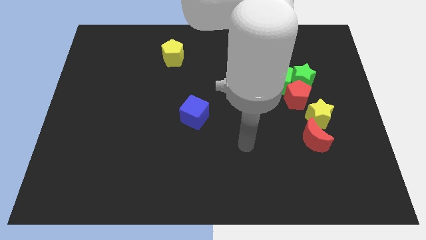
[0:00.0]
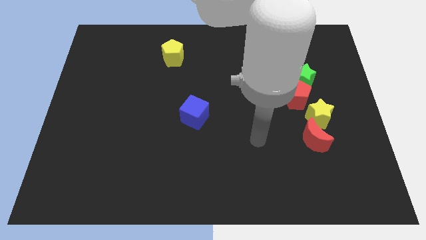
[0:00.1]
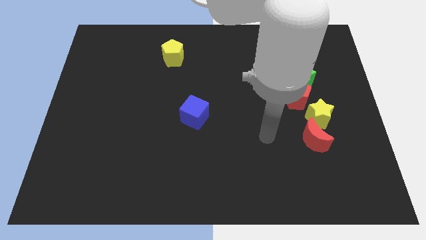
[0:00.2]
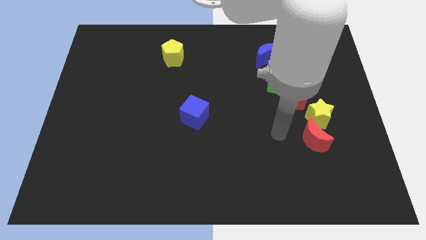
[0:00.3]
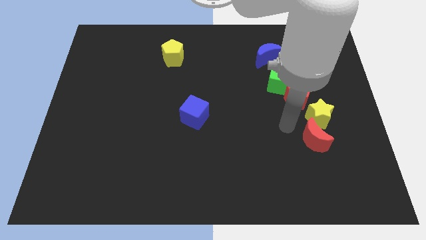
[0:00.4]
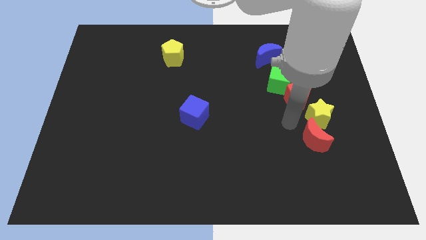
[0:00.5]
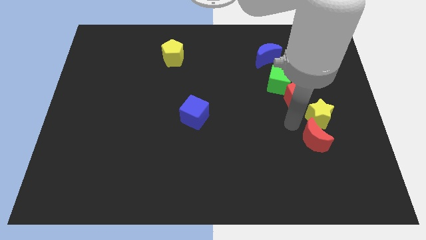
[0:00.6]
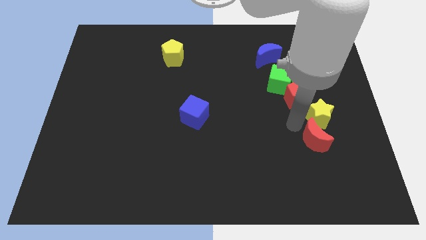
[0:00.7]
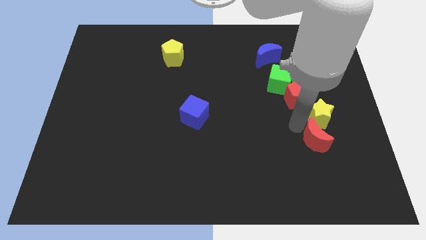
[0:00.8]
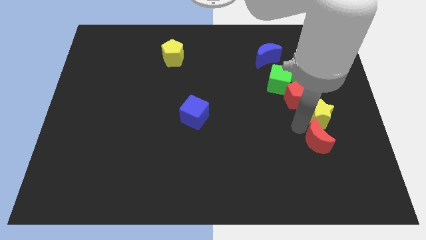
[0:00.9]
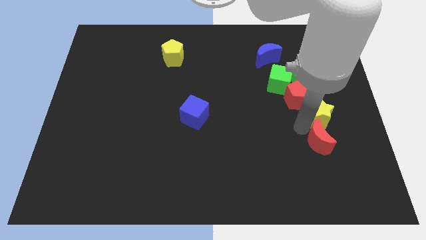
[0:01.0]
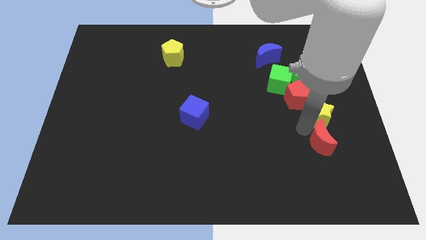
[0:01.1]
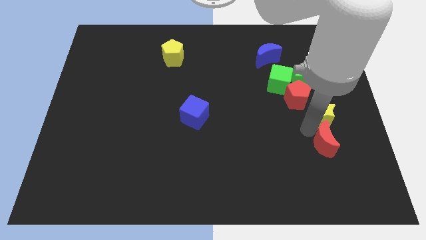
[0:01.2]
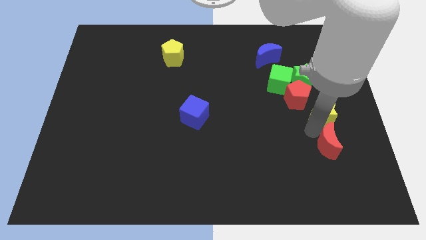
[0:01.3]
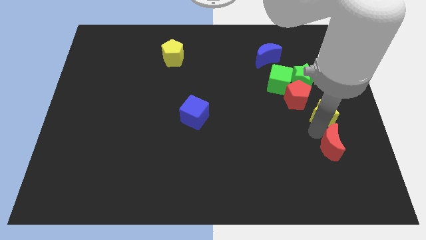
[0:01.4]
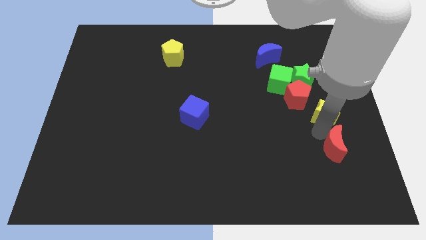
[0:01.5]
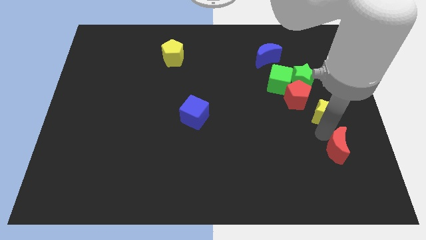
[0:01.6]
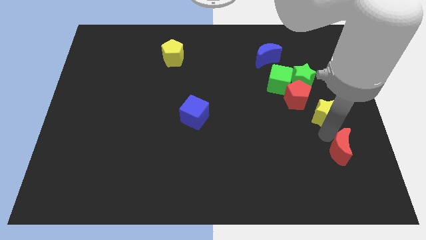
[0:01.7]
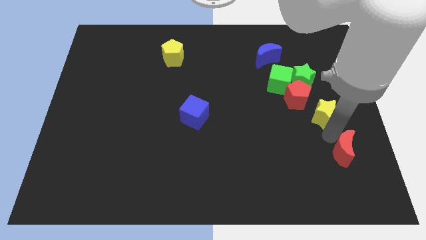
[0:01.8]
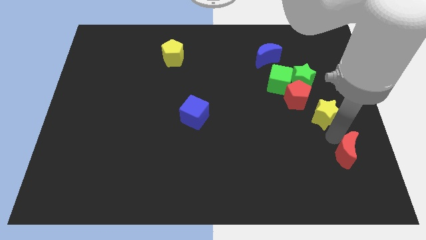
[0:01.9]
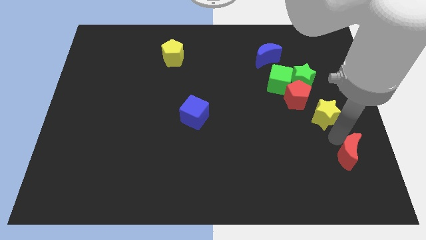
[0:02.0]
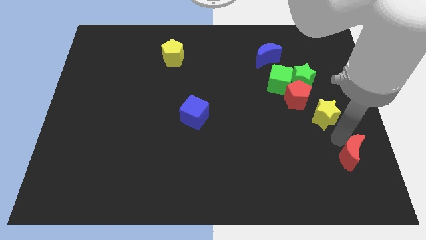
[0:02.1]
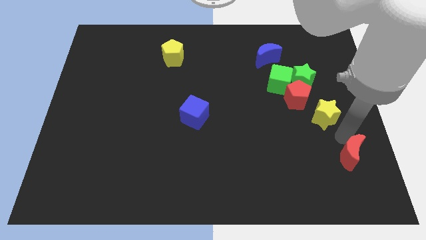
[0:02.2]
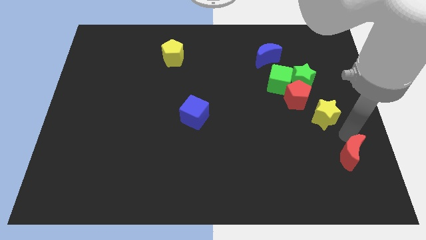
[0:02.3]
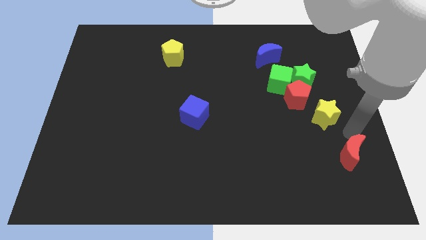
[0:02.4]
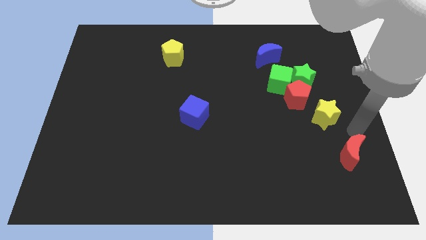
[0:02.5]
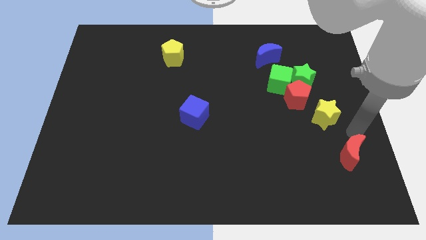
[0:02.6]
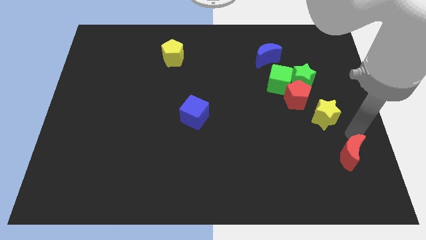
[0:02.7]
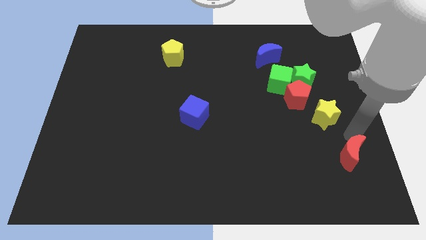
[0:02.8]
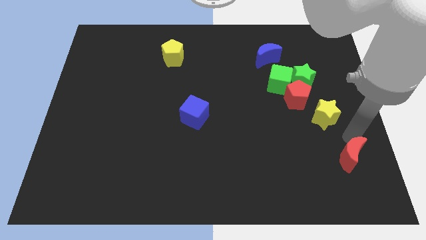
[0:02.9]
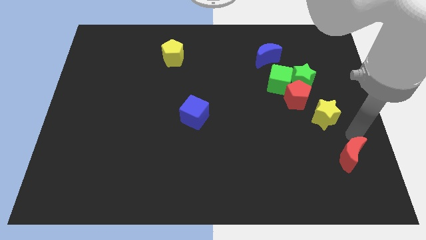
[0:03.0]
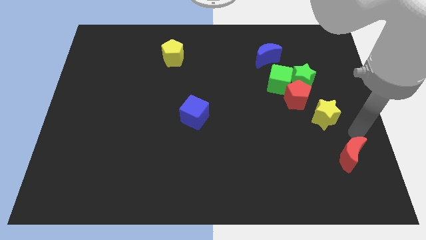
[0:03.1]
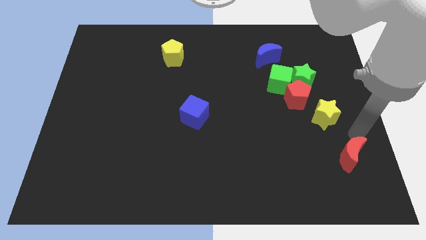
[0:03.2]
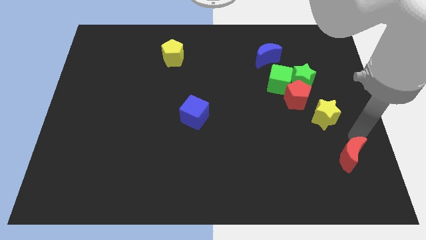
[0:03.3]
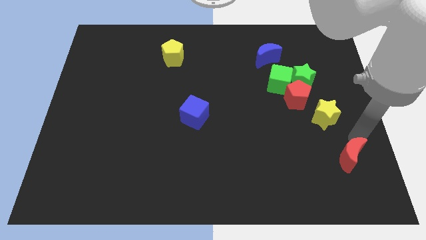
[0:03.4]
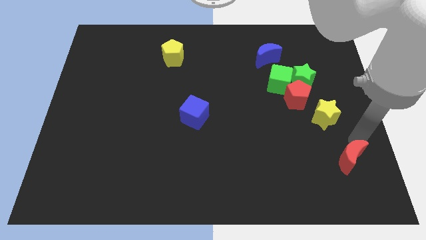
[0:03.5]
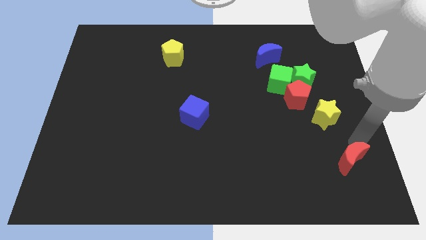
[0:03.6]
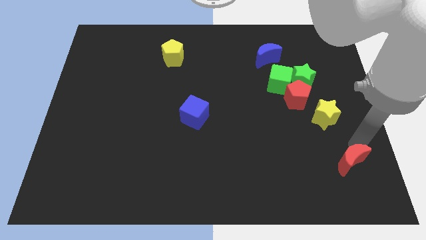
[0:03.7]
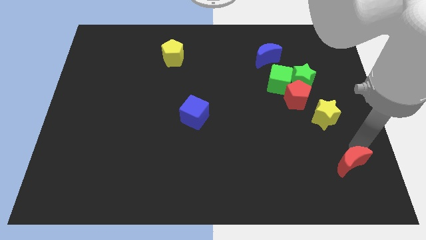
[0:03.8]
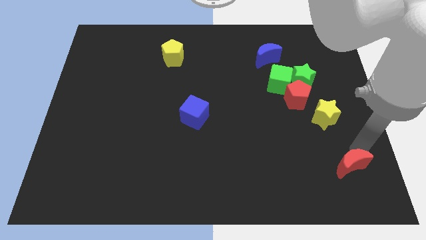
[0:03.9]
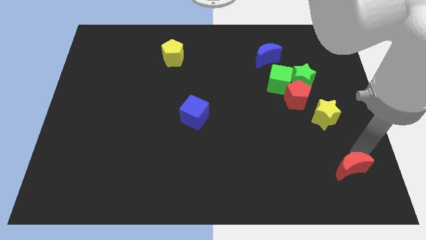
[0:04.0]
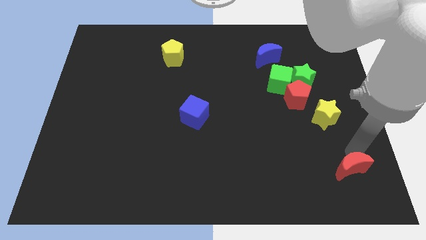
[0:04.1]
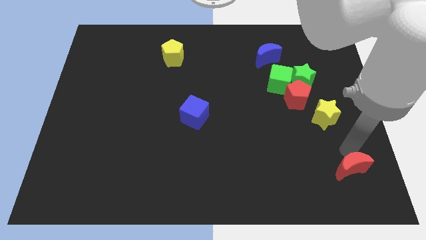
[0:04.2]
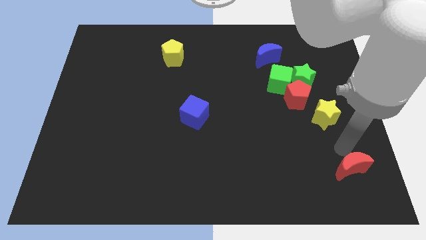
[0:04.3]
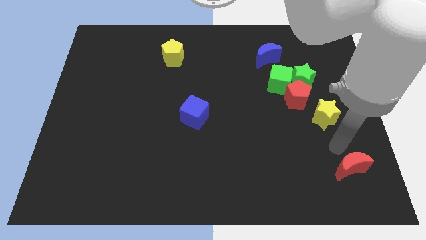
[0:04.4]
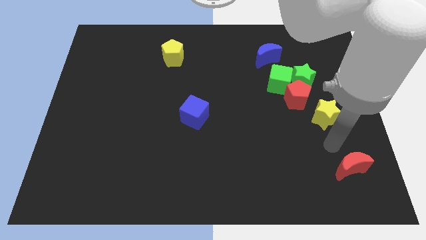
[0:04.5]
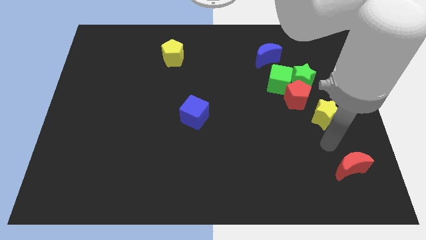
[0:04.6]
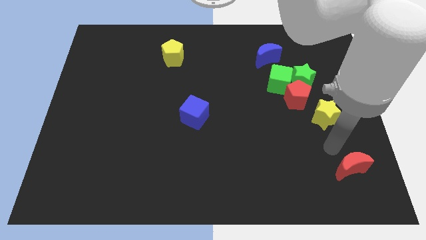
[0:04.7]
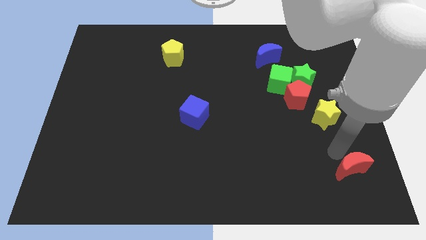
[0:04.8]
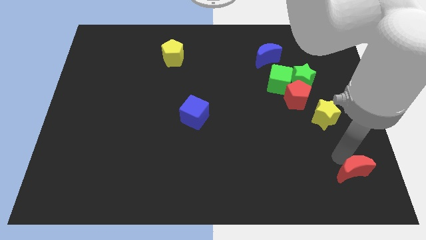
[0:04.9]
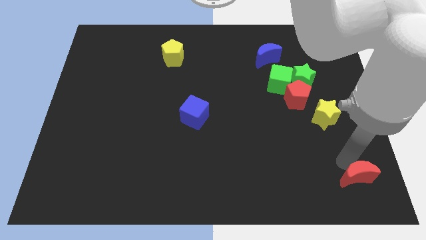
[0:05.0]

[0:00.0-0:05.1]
move the red moon to the bottom right corner

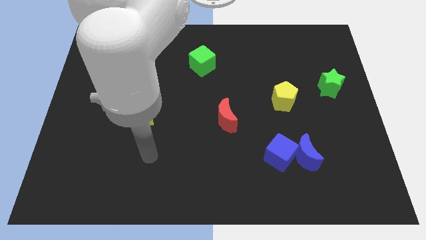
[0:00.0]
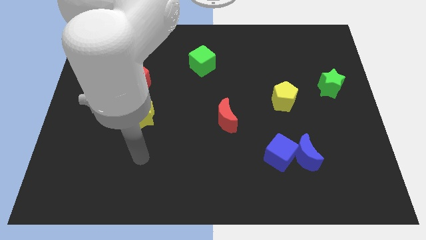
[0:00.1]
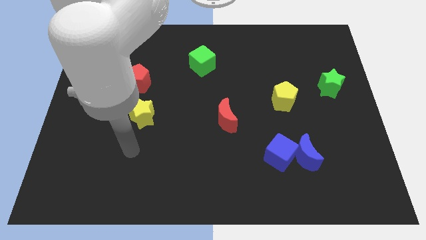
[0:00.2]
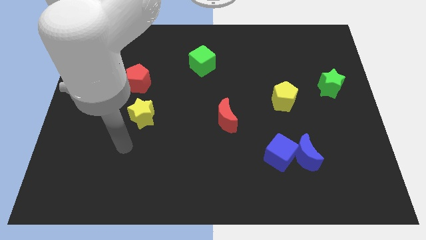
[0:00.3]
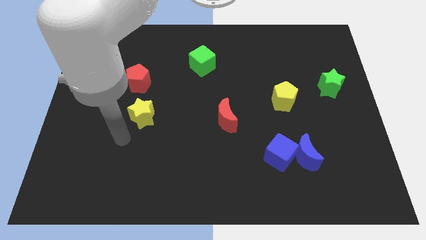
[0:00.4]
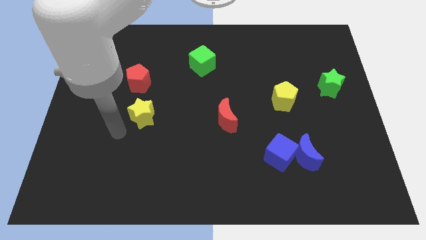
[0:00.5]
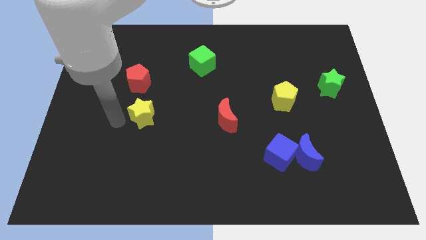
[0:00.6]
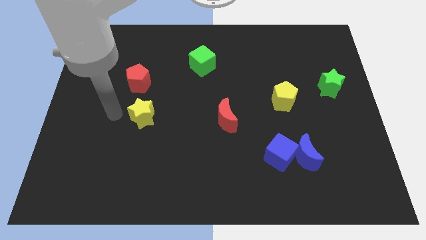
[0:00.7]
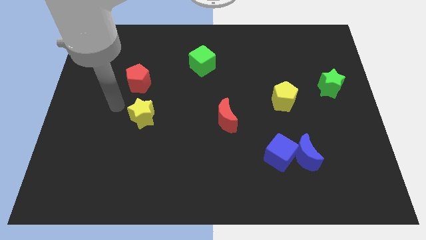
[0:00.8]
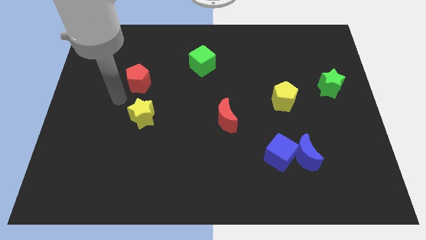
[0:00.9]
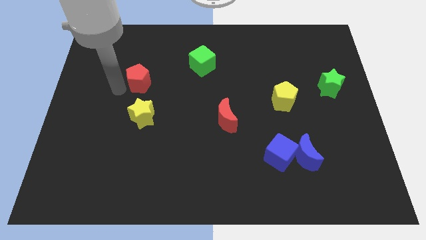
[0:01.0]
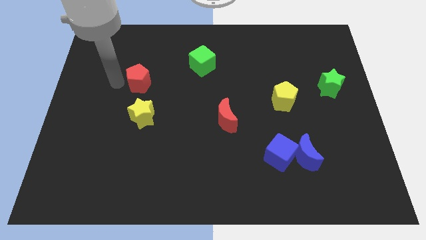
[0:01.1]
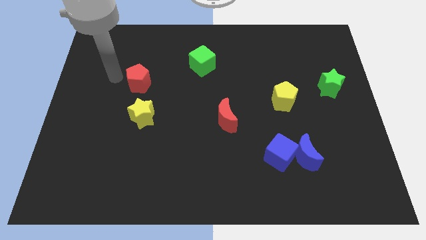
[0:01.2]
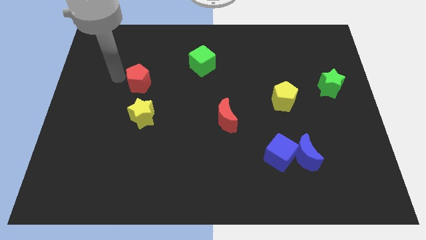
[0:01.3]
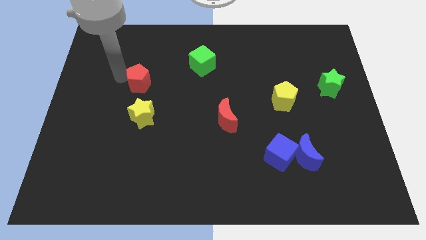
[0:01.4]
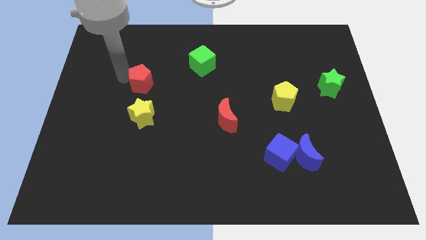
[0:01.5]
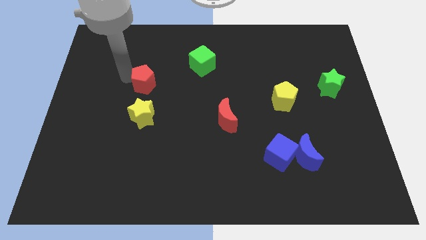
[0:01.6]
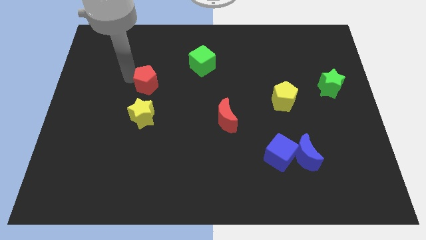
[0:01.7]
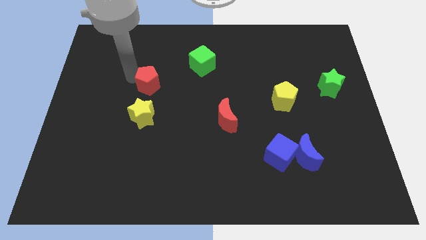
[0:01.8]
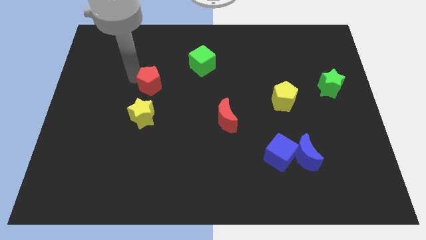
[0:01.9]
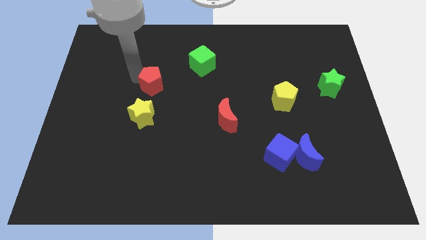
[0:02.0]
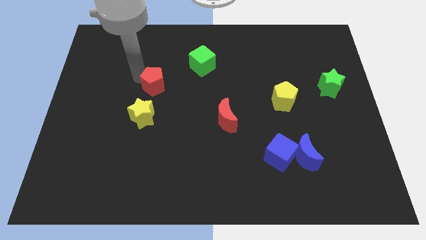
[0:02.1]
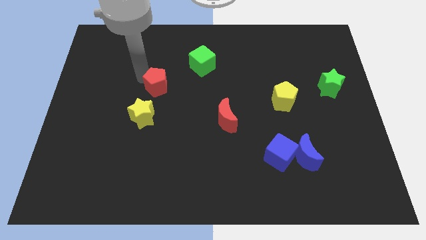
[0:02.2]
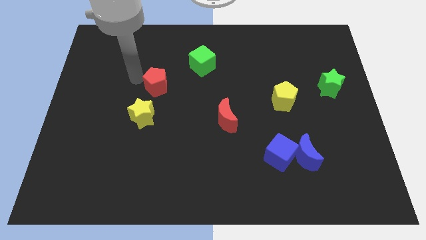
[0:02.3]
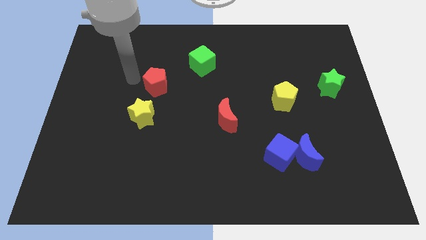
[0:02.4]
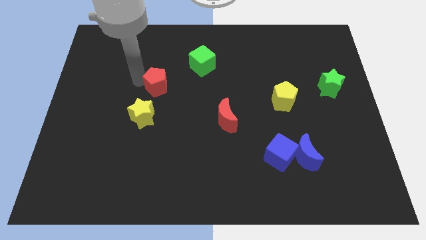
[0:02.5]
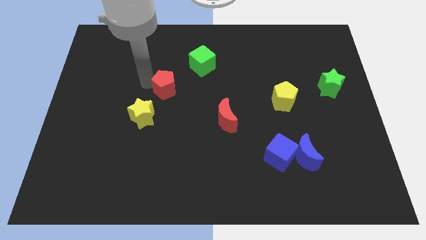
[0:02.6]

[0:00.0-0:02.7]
put the red pentagon to the center
